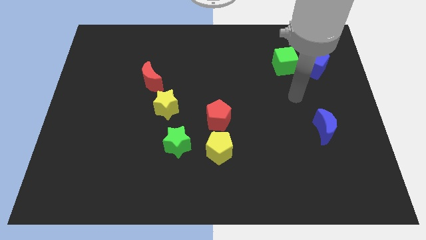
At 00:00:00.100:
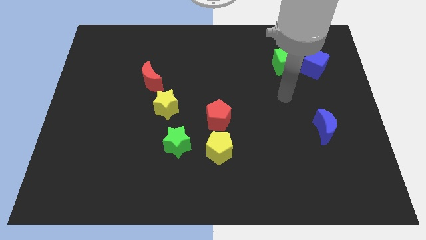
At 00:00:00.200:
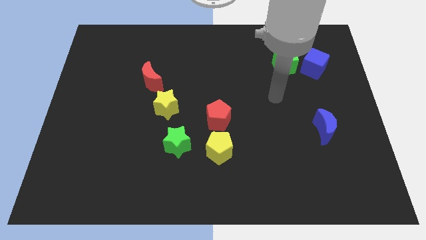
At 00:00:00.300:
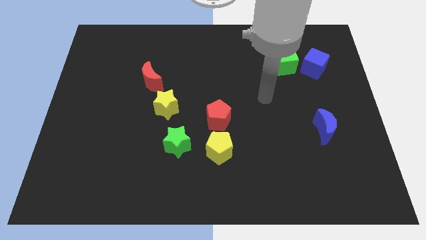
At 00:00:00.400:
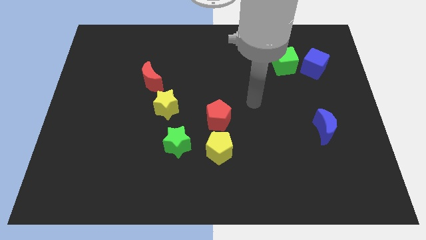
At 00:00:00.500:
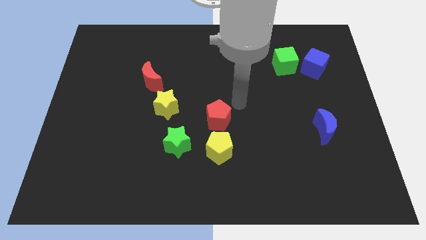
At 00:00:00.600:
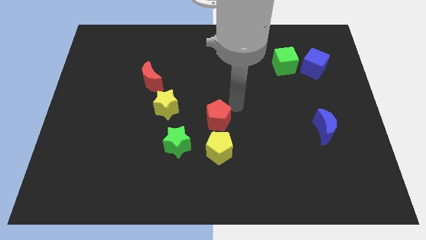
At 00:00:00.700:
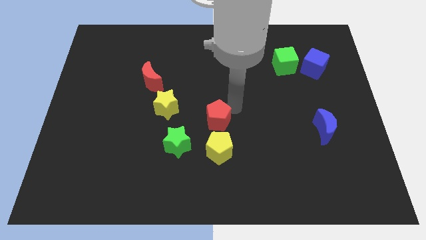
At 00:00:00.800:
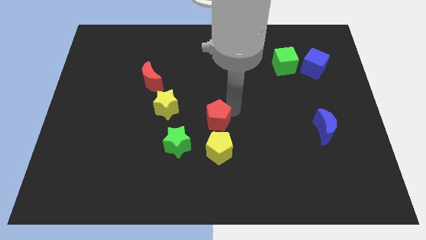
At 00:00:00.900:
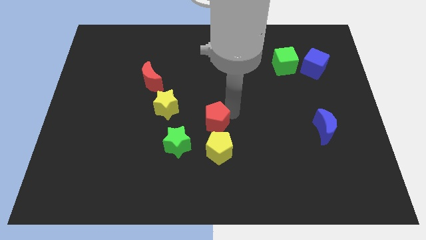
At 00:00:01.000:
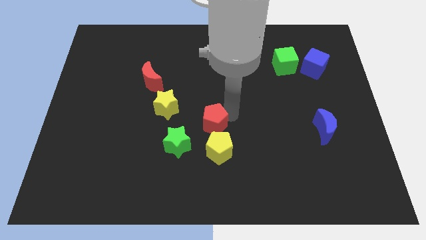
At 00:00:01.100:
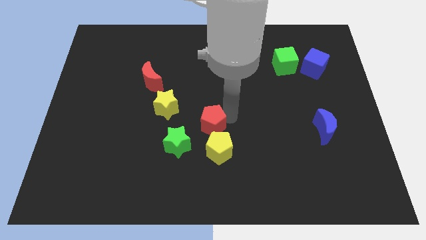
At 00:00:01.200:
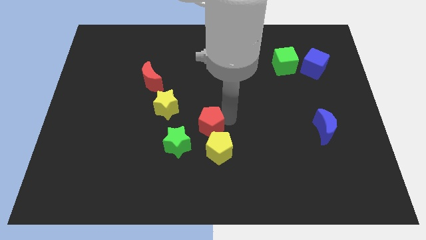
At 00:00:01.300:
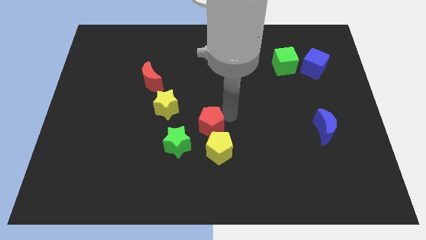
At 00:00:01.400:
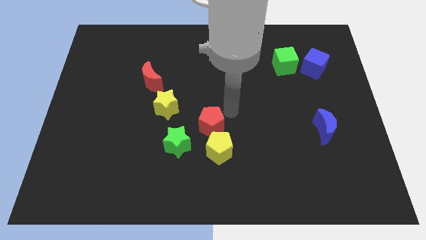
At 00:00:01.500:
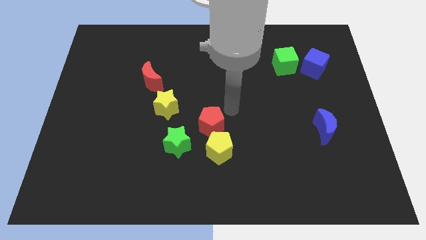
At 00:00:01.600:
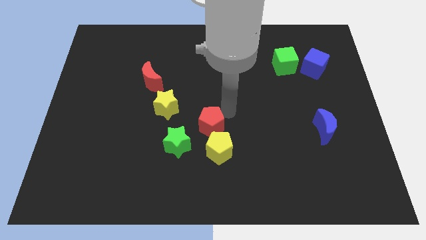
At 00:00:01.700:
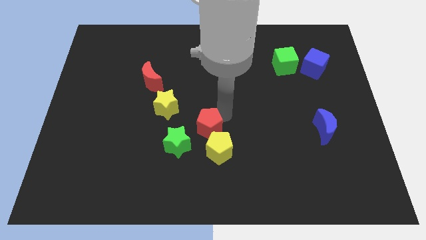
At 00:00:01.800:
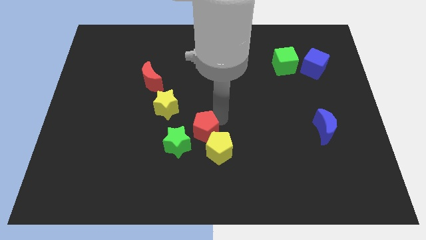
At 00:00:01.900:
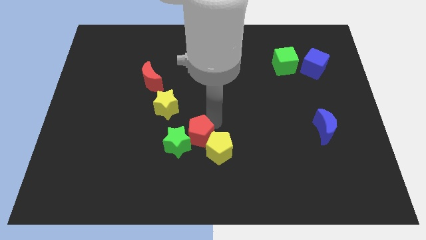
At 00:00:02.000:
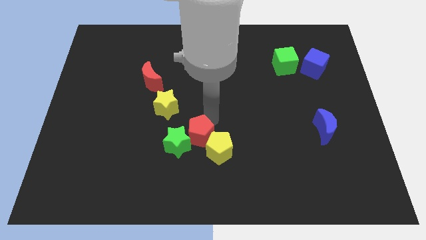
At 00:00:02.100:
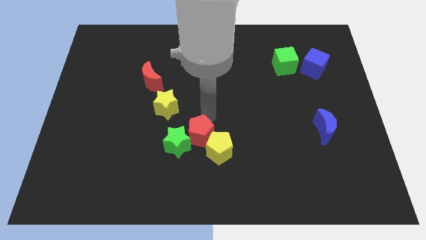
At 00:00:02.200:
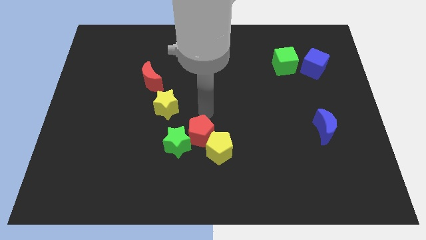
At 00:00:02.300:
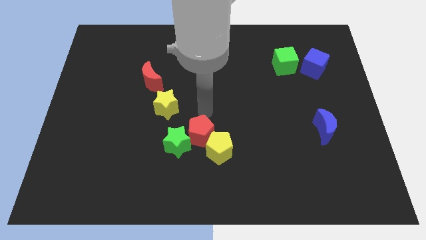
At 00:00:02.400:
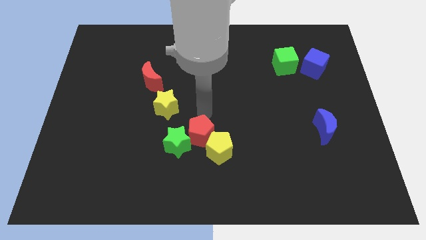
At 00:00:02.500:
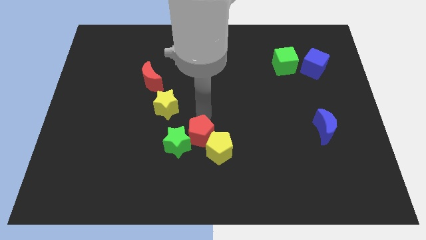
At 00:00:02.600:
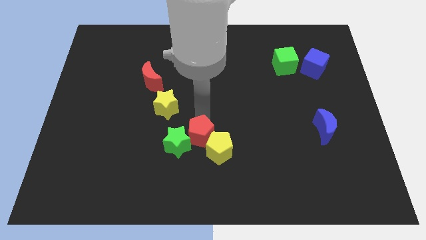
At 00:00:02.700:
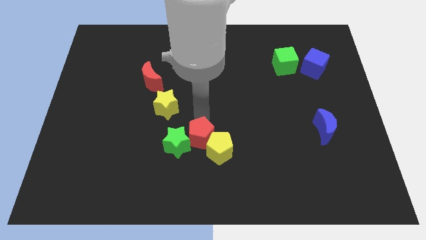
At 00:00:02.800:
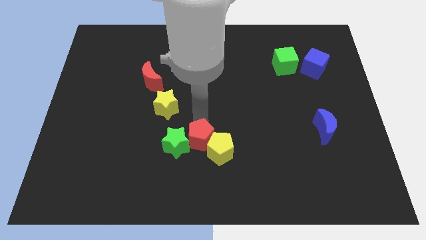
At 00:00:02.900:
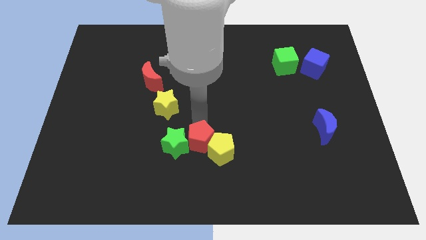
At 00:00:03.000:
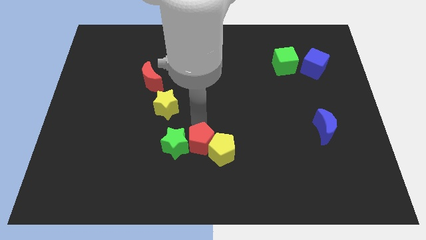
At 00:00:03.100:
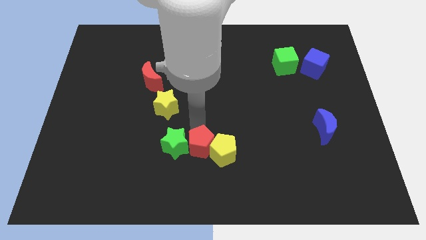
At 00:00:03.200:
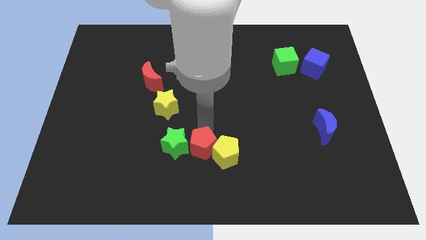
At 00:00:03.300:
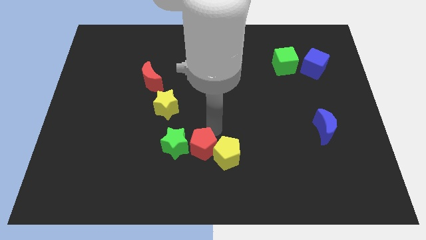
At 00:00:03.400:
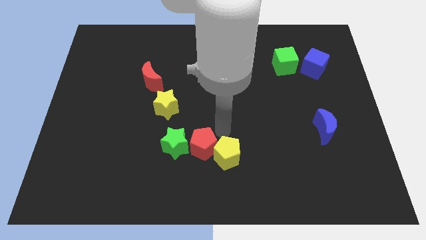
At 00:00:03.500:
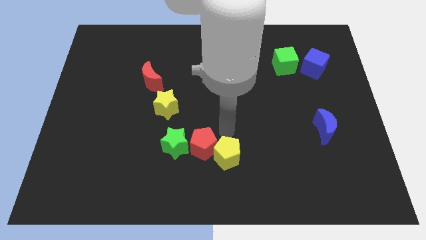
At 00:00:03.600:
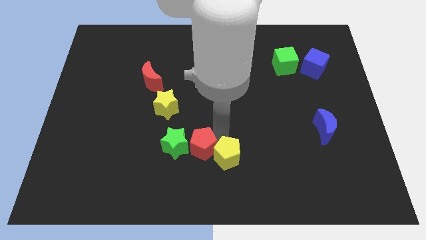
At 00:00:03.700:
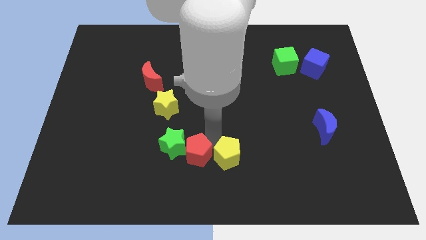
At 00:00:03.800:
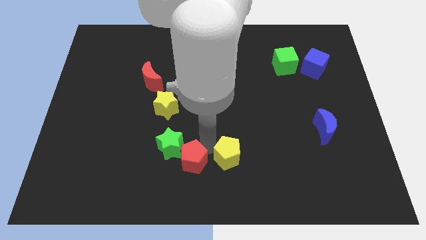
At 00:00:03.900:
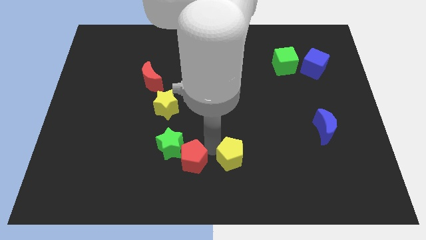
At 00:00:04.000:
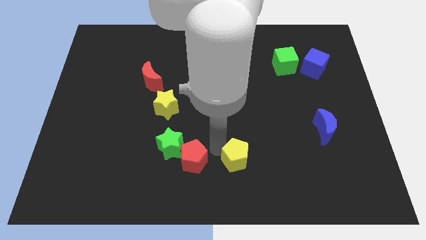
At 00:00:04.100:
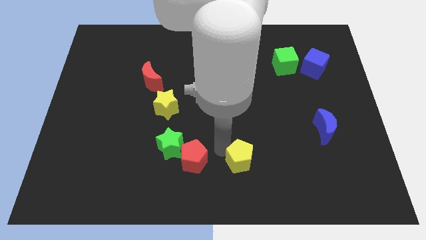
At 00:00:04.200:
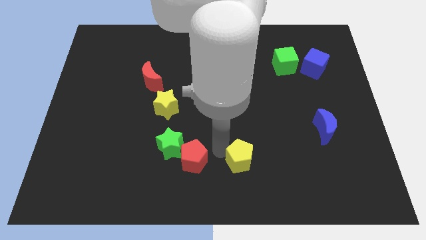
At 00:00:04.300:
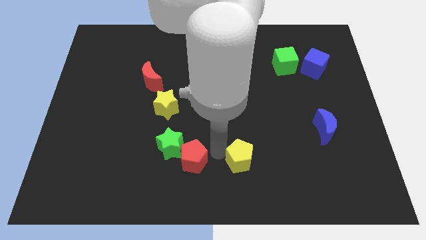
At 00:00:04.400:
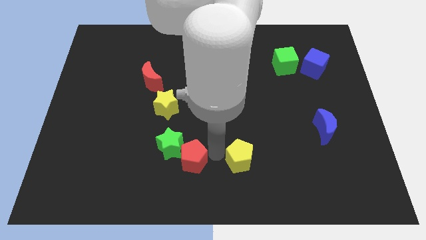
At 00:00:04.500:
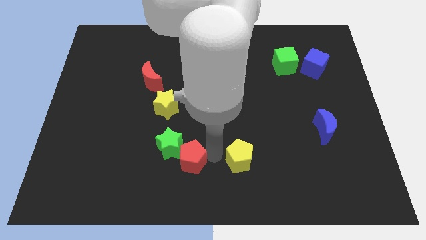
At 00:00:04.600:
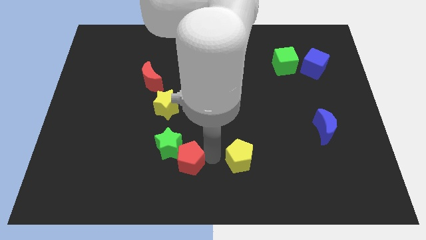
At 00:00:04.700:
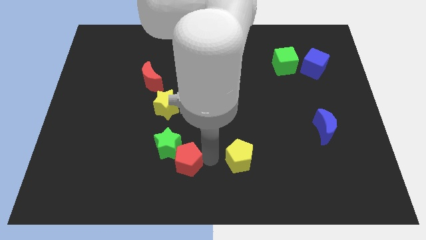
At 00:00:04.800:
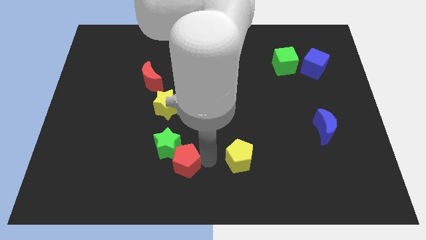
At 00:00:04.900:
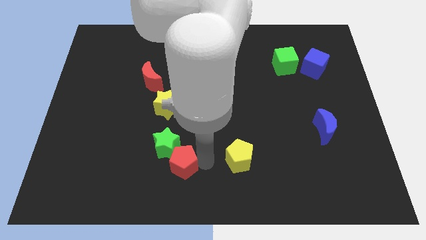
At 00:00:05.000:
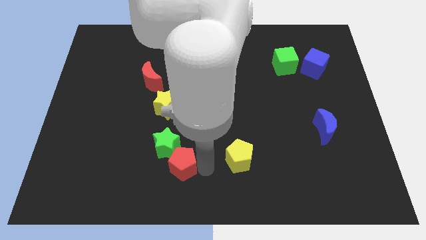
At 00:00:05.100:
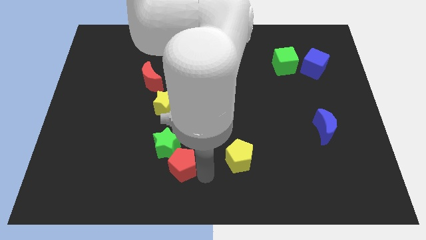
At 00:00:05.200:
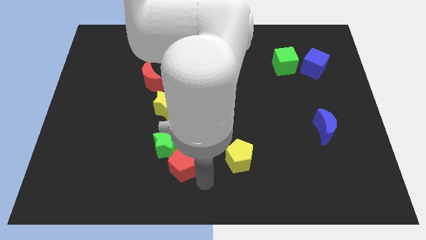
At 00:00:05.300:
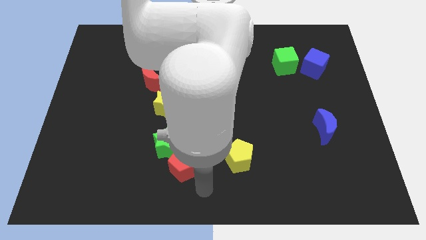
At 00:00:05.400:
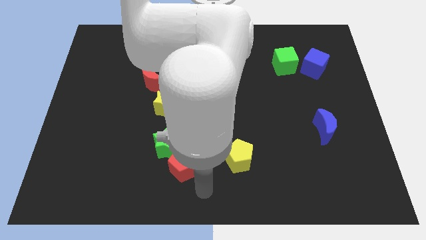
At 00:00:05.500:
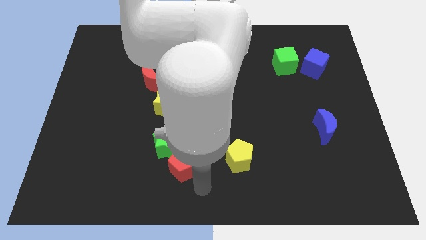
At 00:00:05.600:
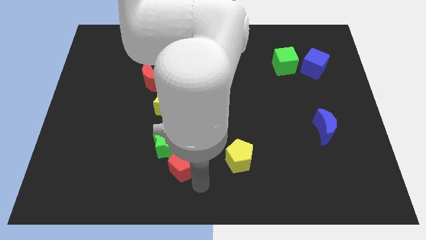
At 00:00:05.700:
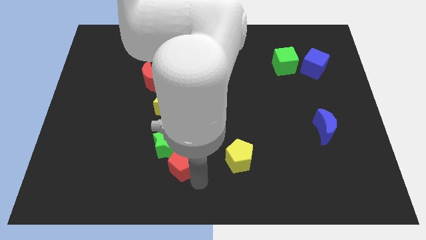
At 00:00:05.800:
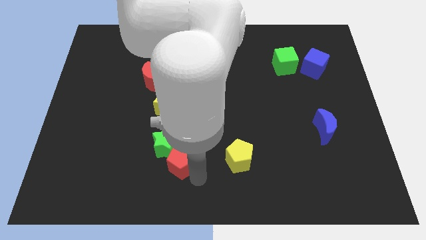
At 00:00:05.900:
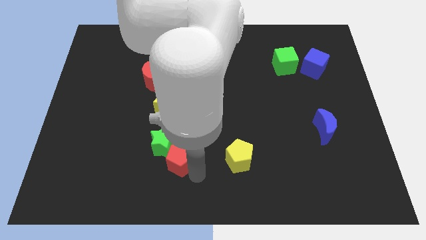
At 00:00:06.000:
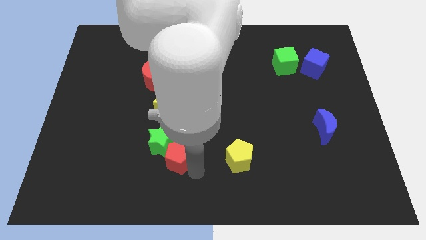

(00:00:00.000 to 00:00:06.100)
put the red pentagon to the bottom of the yellow star

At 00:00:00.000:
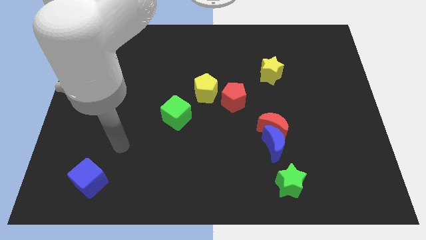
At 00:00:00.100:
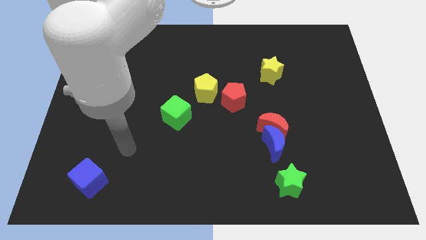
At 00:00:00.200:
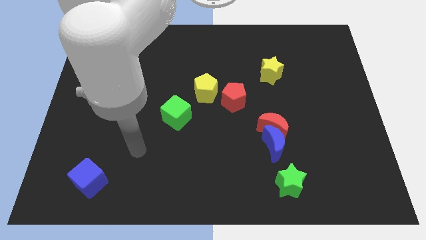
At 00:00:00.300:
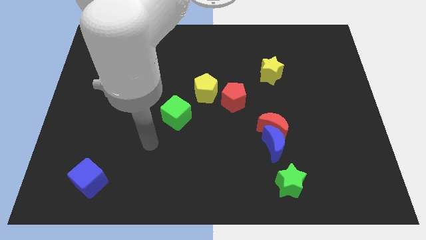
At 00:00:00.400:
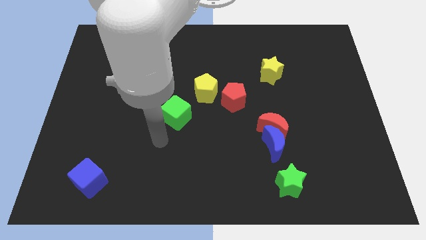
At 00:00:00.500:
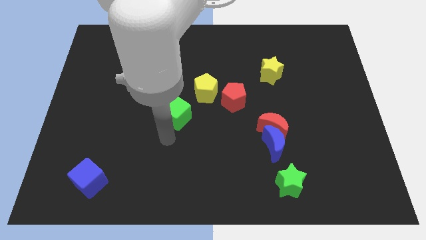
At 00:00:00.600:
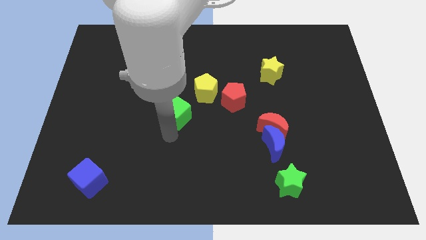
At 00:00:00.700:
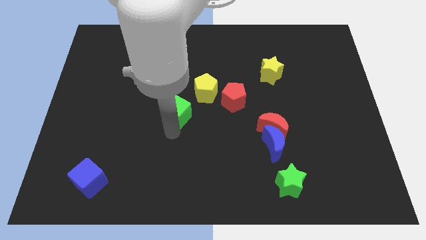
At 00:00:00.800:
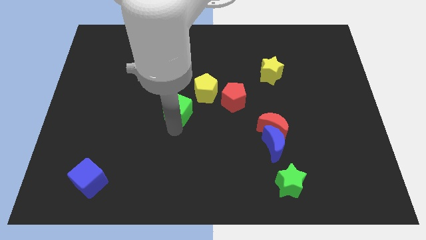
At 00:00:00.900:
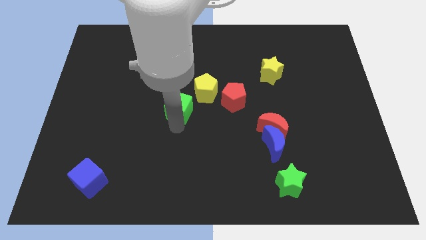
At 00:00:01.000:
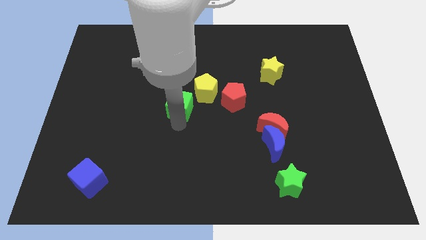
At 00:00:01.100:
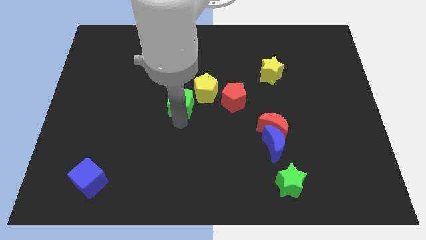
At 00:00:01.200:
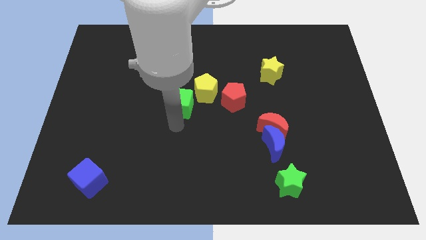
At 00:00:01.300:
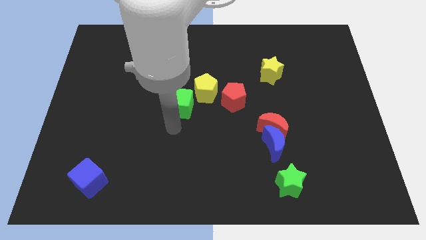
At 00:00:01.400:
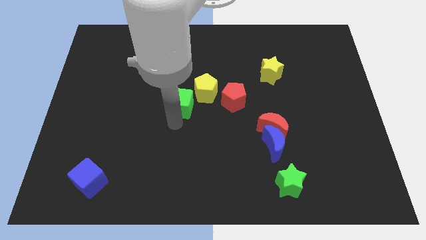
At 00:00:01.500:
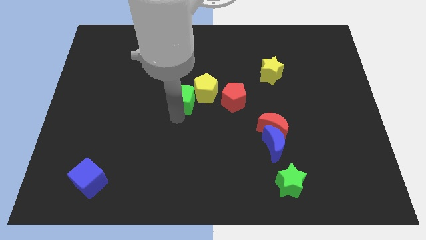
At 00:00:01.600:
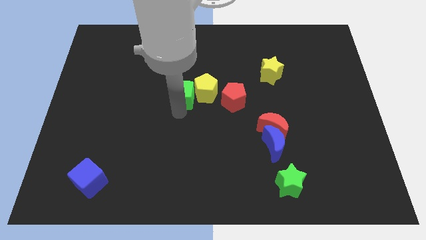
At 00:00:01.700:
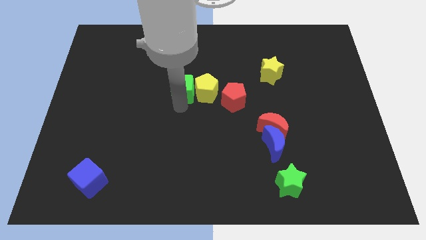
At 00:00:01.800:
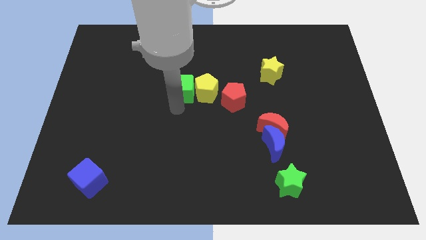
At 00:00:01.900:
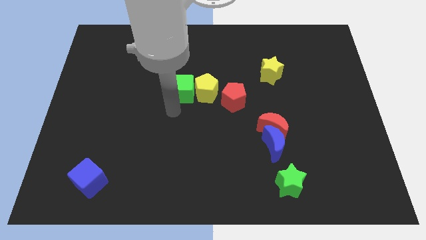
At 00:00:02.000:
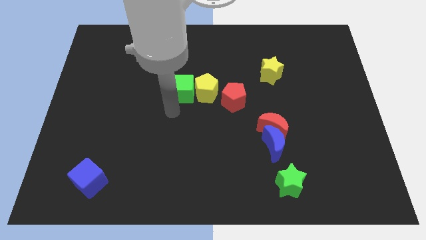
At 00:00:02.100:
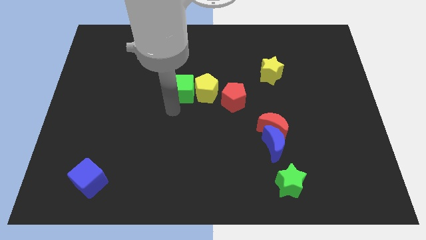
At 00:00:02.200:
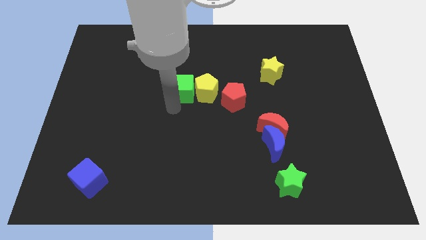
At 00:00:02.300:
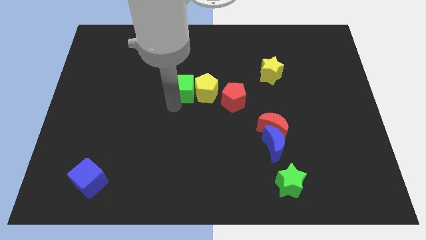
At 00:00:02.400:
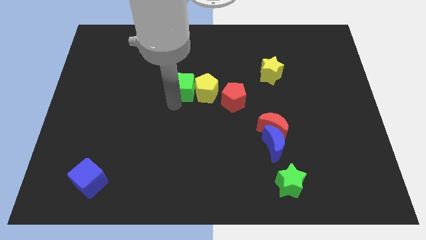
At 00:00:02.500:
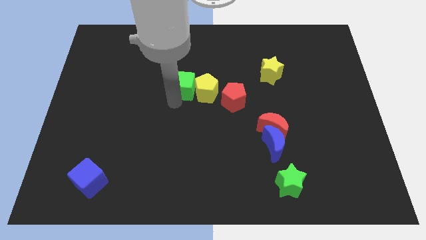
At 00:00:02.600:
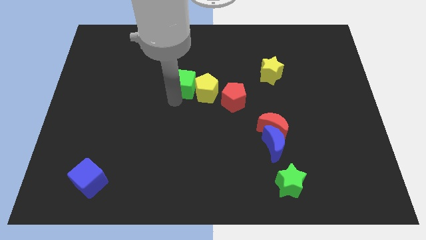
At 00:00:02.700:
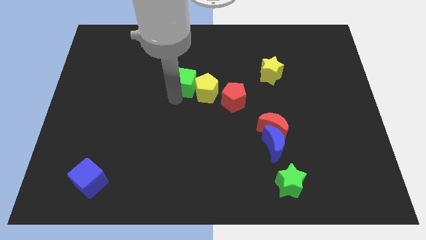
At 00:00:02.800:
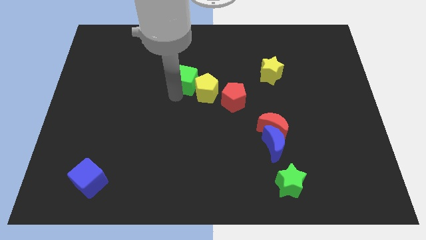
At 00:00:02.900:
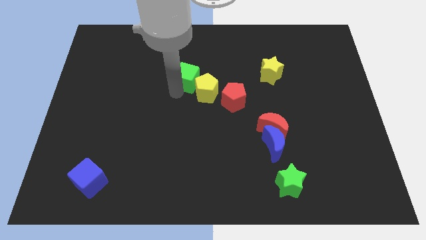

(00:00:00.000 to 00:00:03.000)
put the green cube to the top of the yellow pentagon
